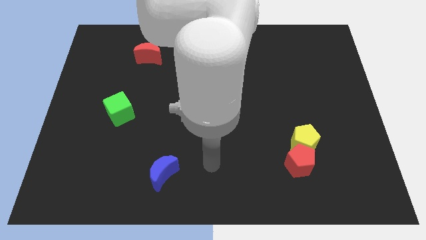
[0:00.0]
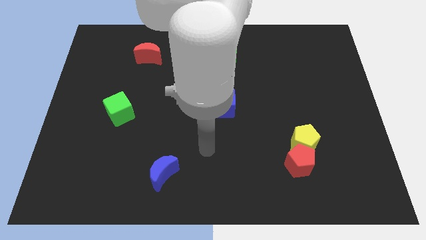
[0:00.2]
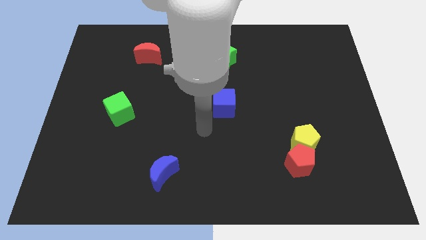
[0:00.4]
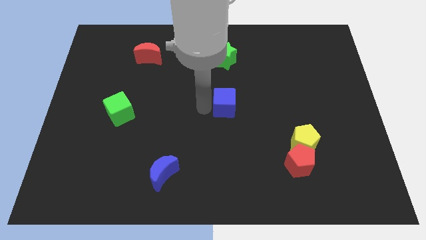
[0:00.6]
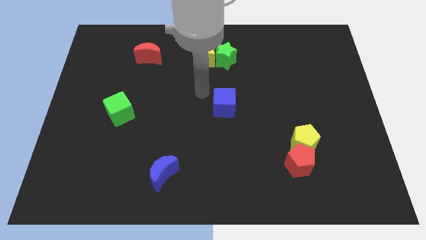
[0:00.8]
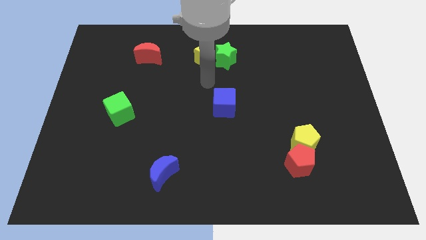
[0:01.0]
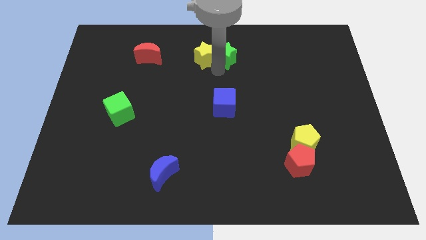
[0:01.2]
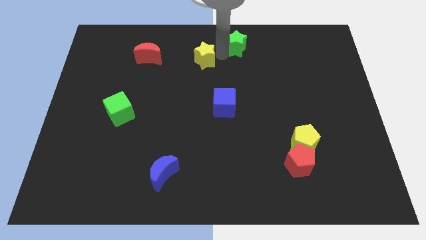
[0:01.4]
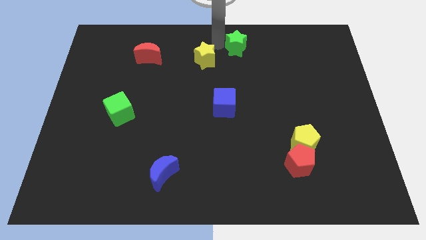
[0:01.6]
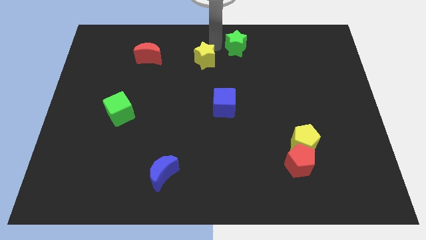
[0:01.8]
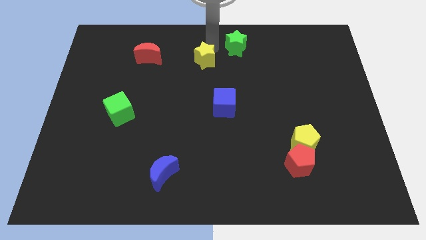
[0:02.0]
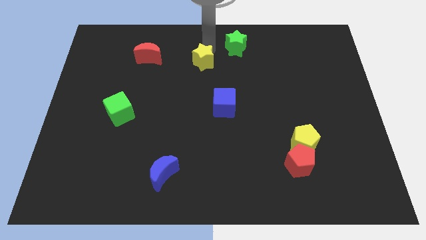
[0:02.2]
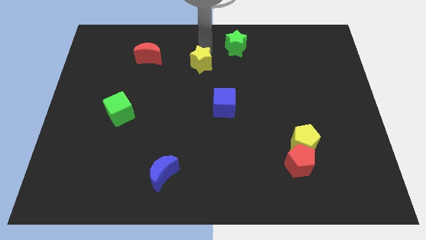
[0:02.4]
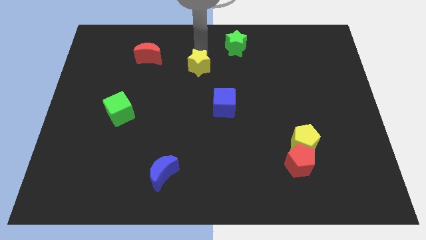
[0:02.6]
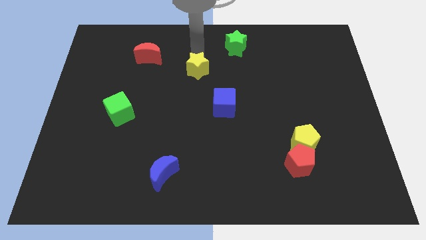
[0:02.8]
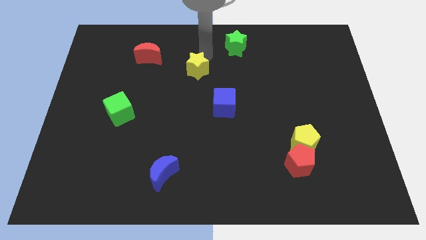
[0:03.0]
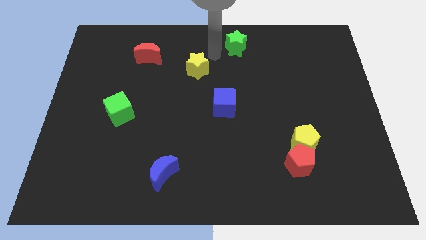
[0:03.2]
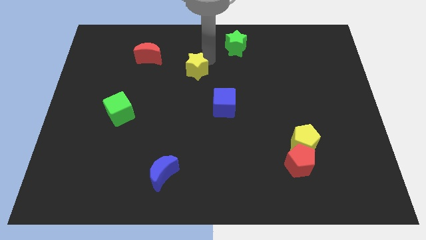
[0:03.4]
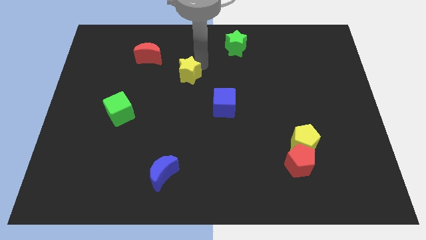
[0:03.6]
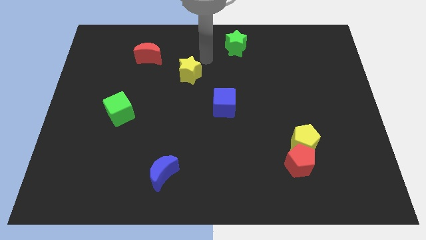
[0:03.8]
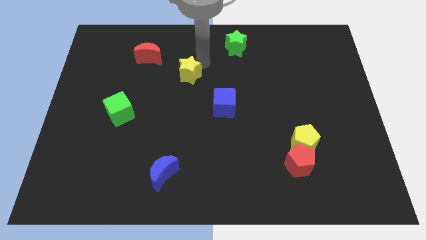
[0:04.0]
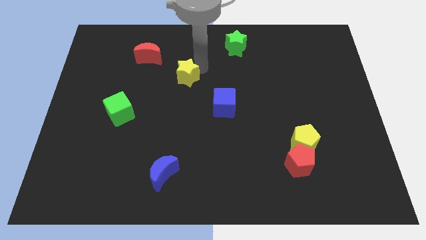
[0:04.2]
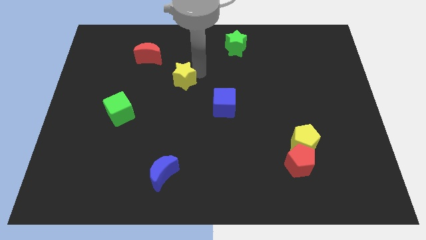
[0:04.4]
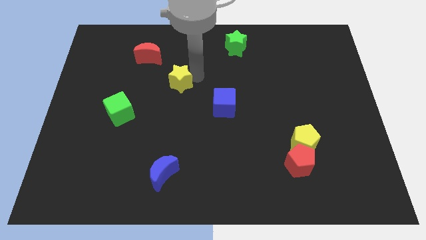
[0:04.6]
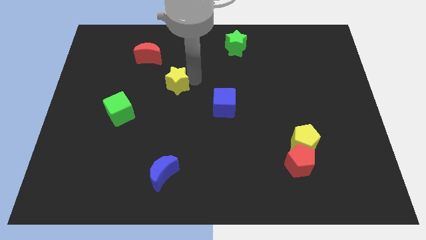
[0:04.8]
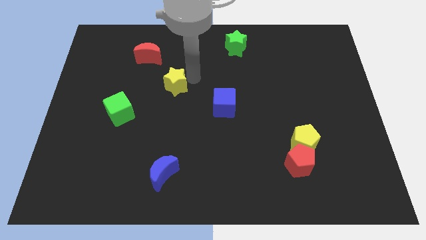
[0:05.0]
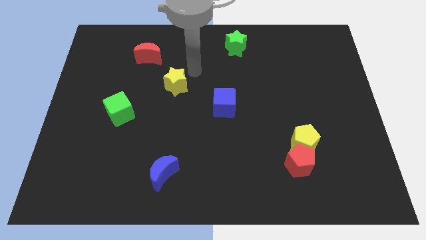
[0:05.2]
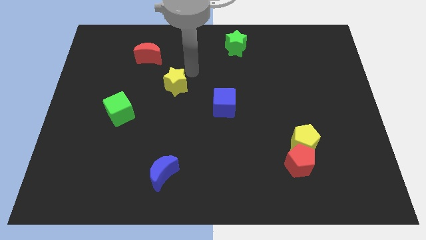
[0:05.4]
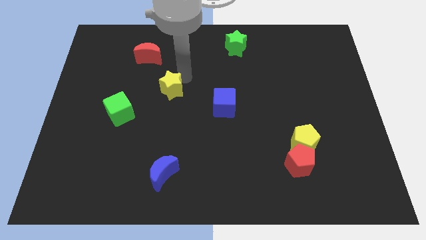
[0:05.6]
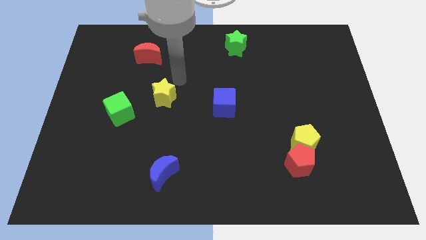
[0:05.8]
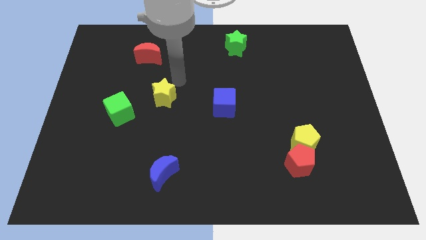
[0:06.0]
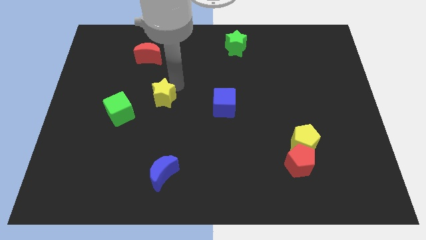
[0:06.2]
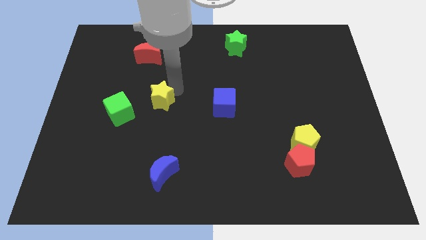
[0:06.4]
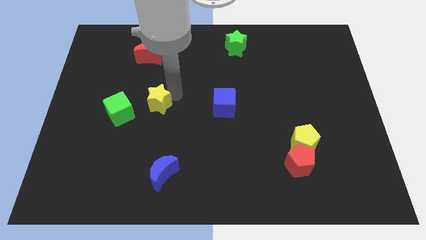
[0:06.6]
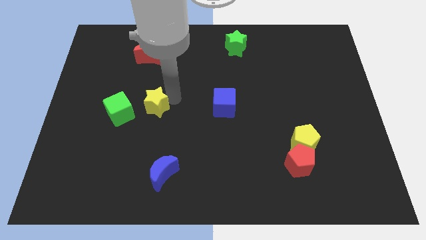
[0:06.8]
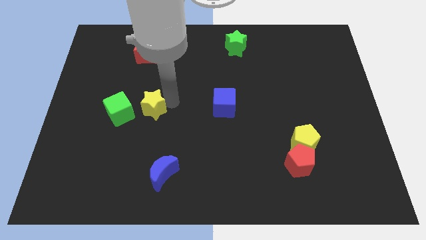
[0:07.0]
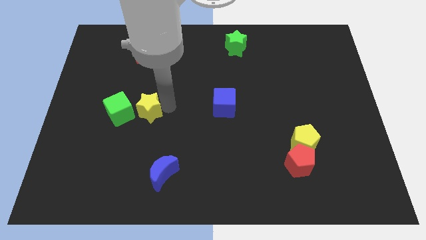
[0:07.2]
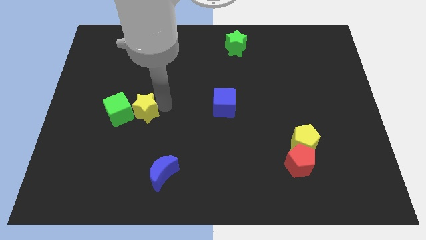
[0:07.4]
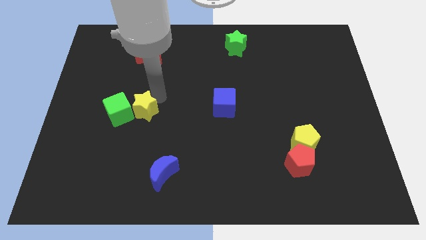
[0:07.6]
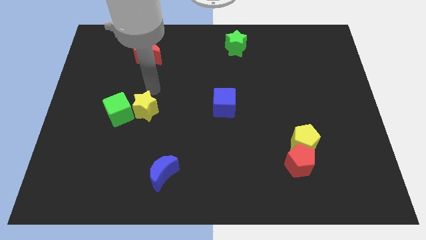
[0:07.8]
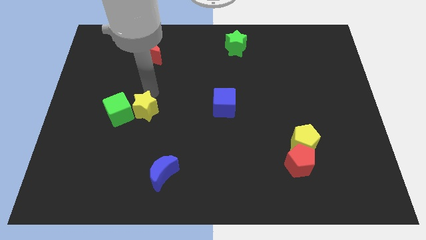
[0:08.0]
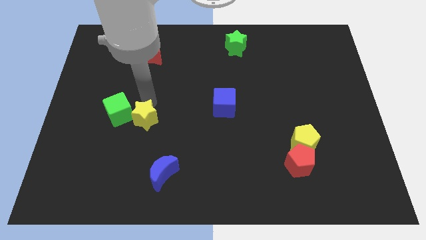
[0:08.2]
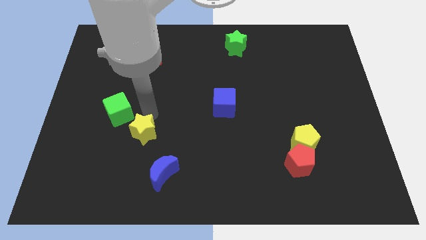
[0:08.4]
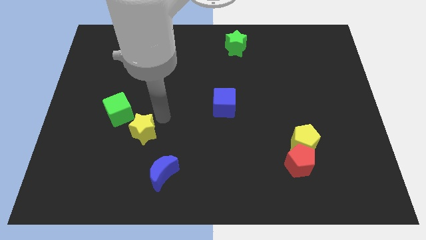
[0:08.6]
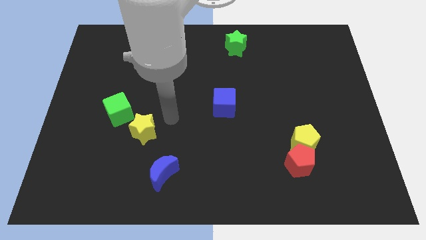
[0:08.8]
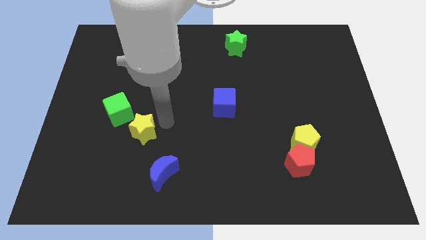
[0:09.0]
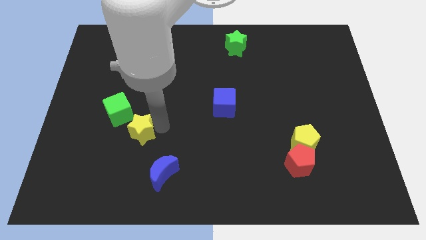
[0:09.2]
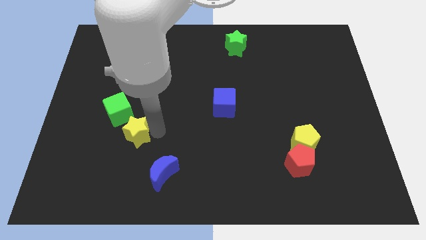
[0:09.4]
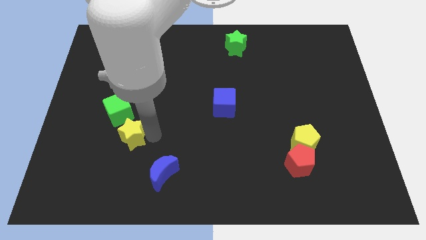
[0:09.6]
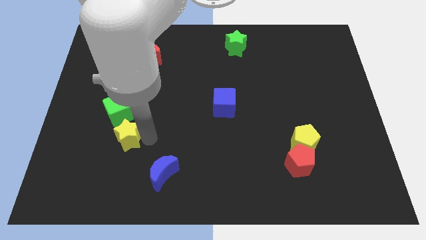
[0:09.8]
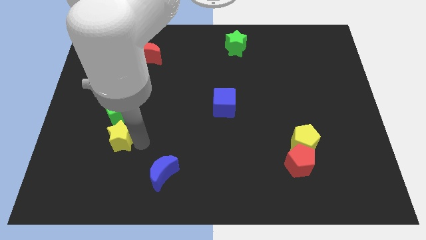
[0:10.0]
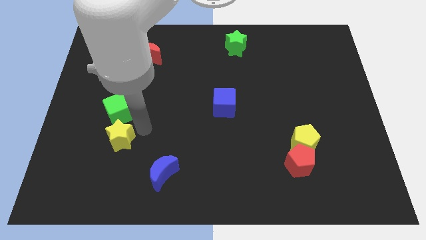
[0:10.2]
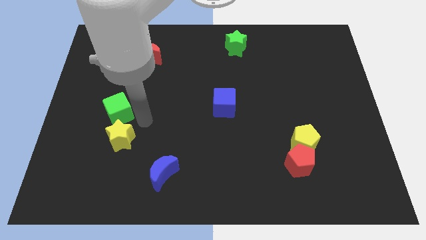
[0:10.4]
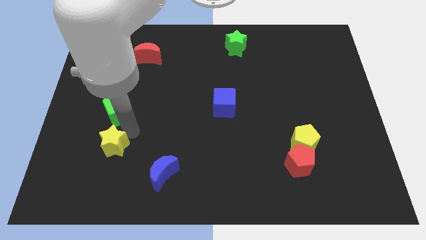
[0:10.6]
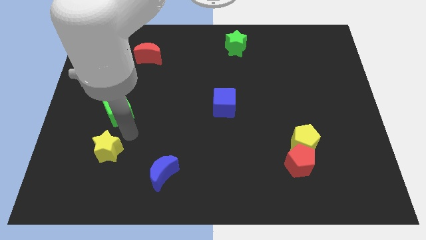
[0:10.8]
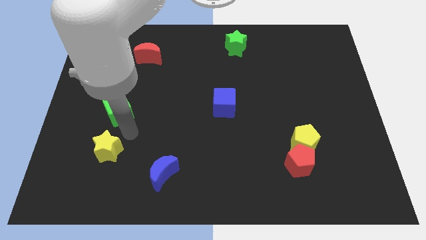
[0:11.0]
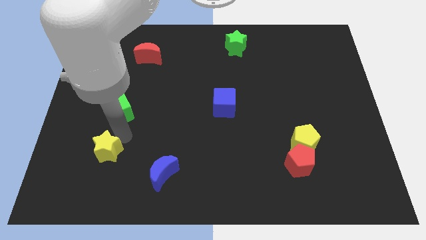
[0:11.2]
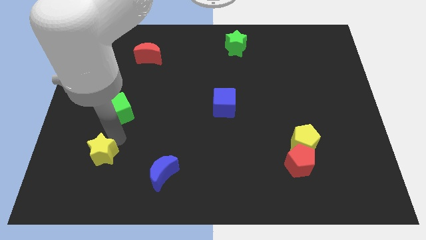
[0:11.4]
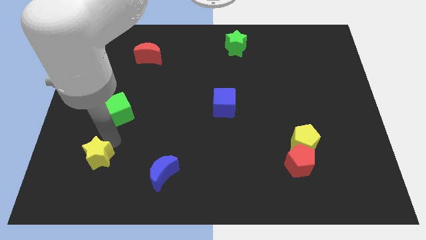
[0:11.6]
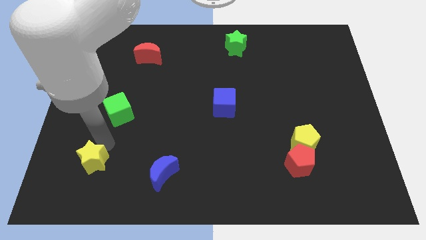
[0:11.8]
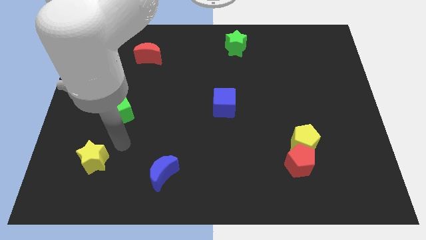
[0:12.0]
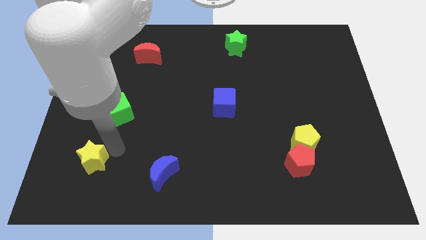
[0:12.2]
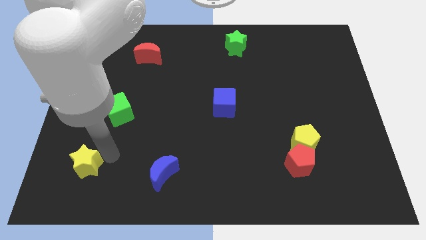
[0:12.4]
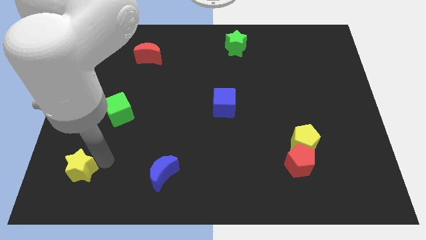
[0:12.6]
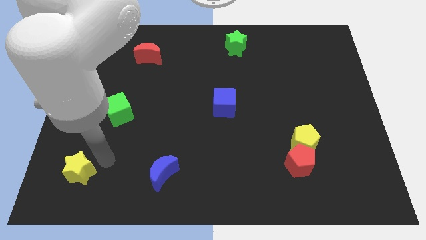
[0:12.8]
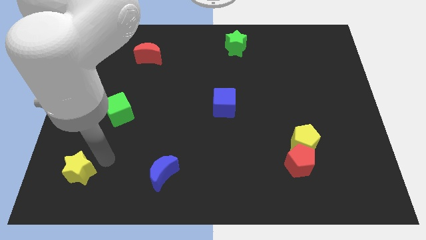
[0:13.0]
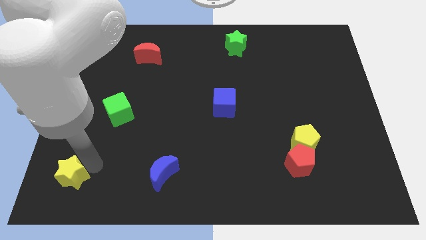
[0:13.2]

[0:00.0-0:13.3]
slide the yellow star to the bottom left of the board
